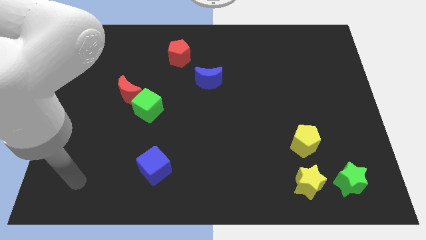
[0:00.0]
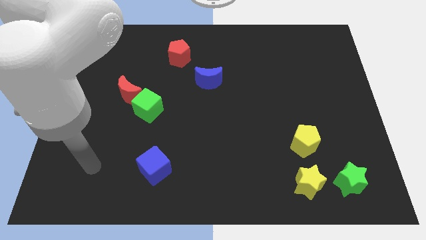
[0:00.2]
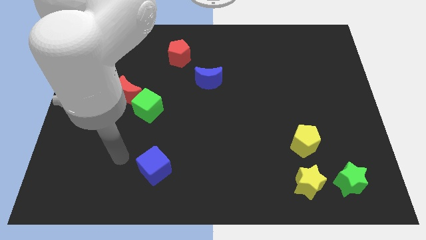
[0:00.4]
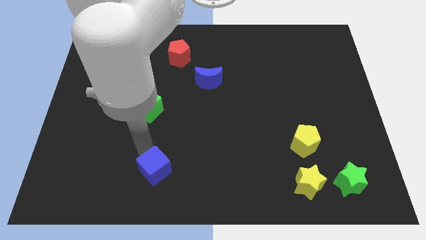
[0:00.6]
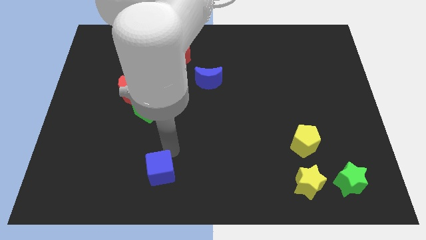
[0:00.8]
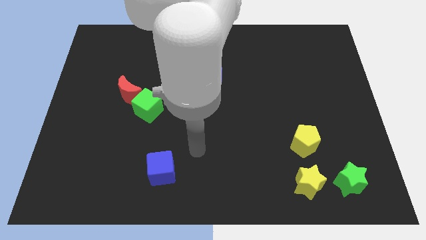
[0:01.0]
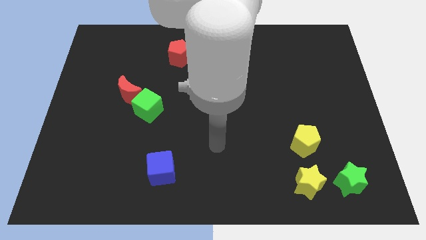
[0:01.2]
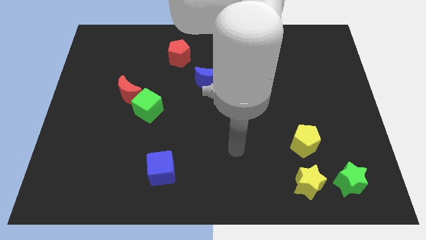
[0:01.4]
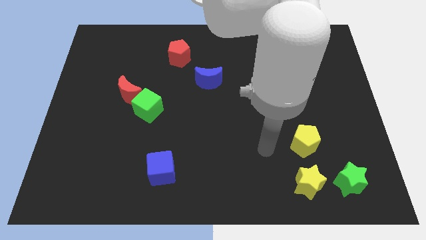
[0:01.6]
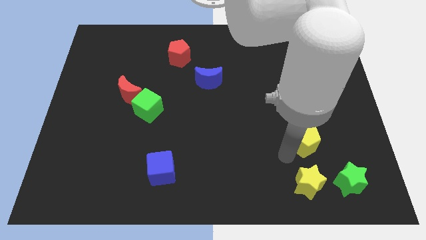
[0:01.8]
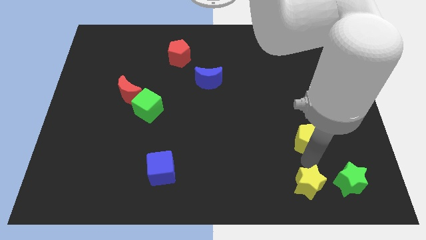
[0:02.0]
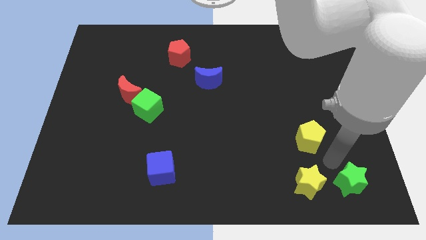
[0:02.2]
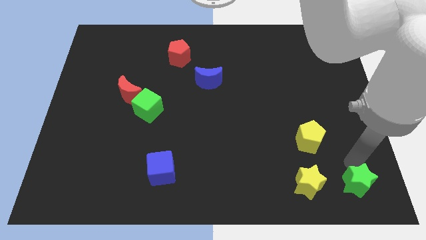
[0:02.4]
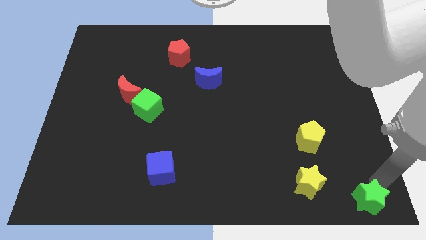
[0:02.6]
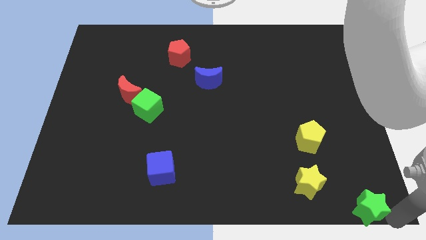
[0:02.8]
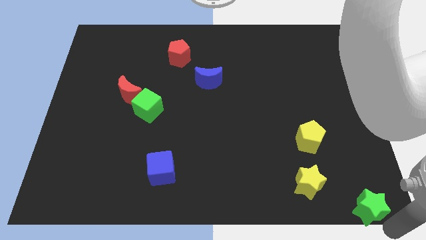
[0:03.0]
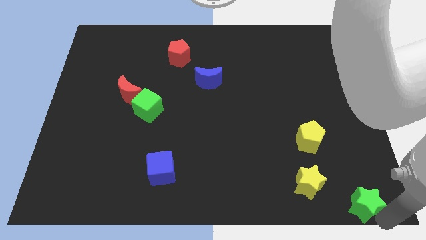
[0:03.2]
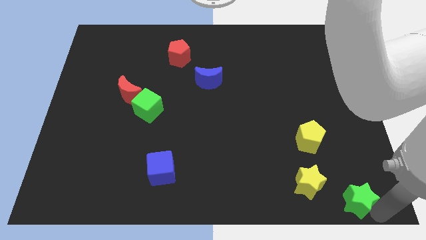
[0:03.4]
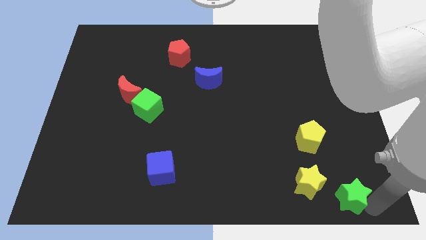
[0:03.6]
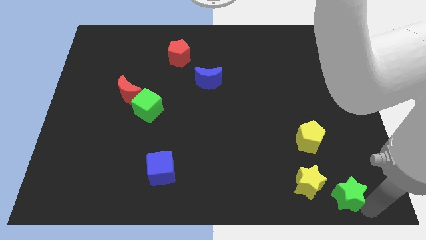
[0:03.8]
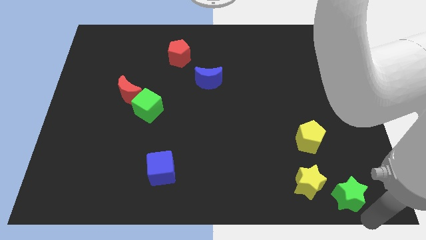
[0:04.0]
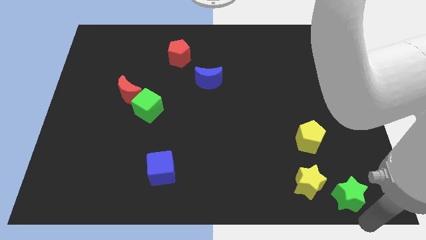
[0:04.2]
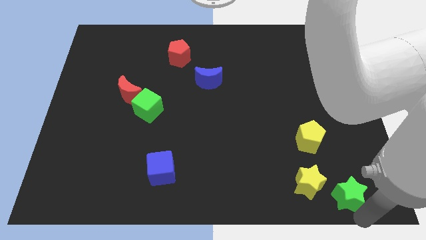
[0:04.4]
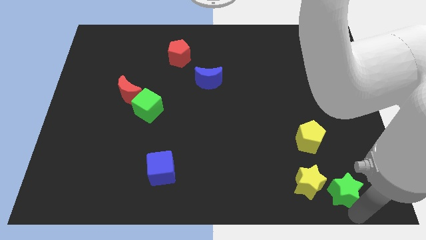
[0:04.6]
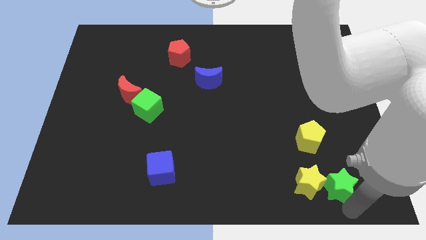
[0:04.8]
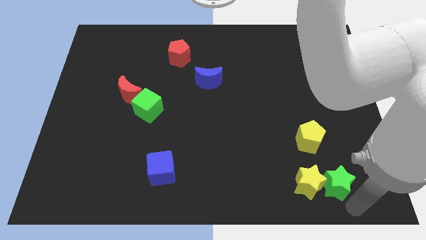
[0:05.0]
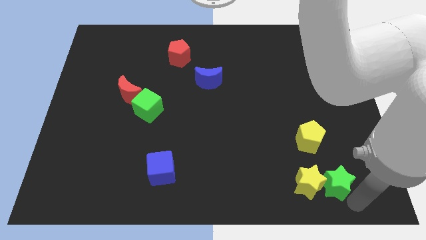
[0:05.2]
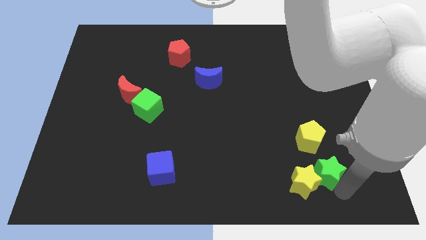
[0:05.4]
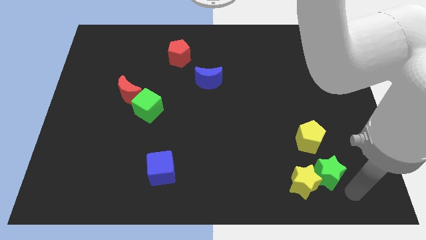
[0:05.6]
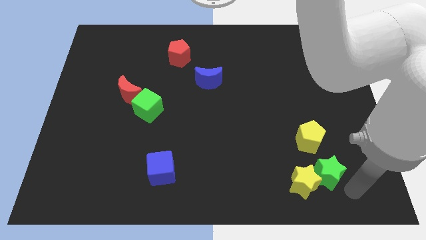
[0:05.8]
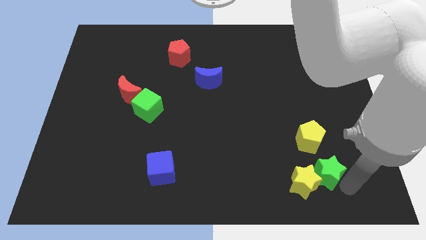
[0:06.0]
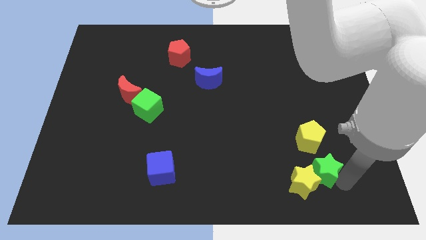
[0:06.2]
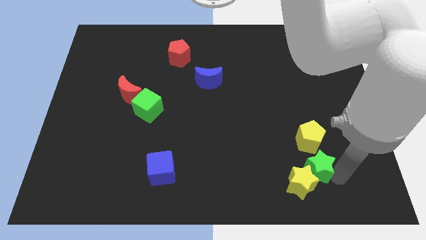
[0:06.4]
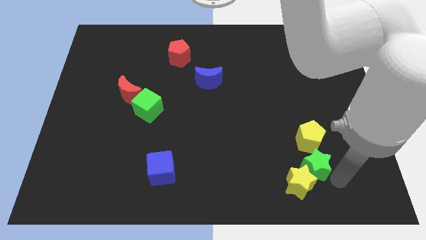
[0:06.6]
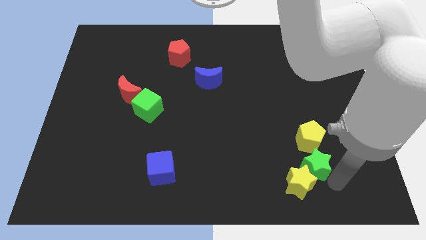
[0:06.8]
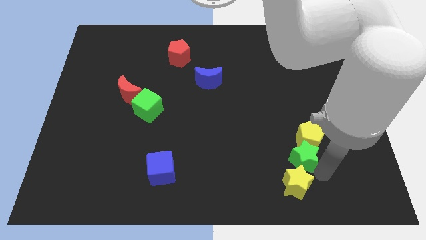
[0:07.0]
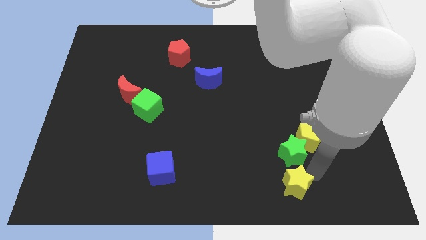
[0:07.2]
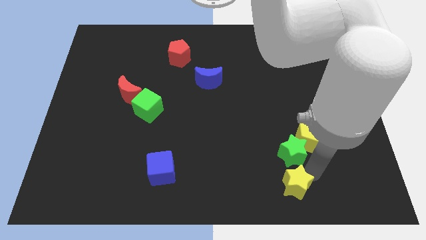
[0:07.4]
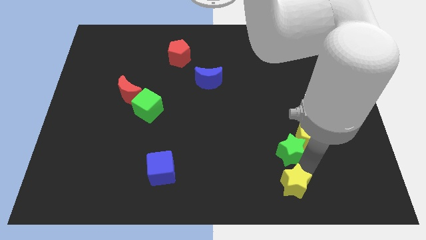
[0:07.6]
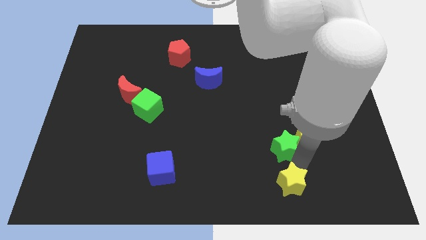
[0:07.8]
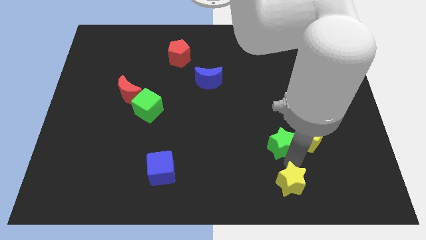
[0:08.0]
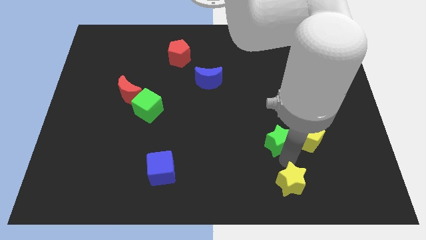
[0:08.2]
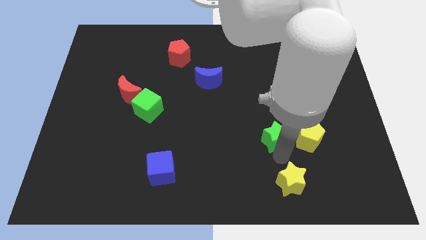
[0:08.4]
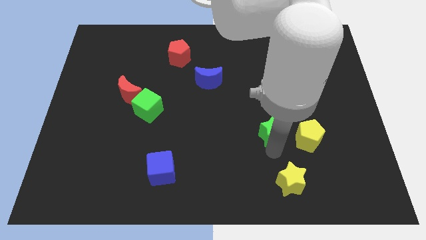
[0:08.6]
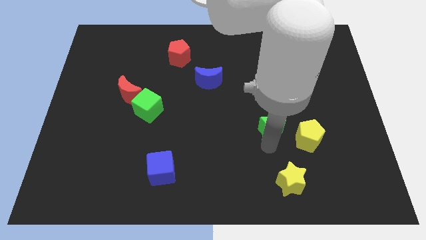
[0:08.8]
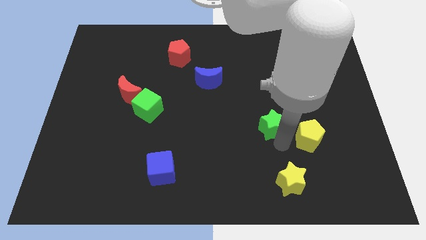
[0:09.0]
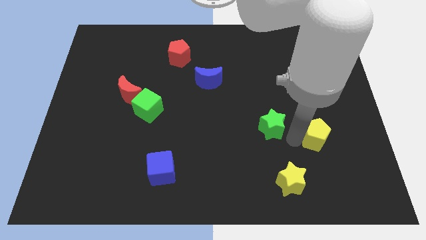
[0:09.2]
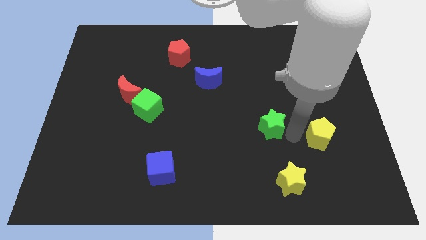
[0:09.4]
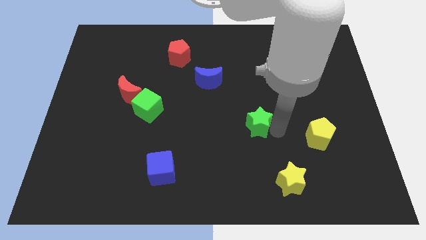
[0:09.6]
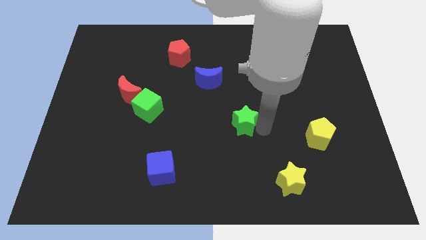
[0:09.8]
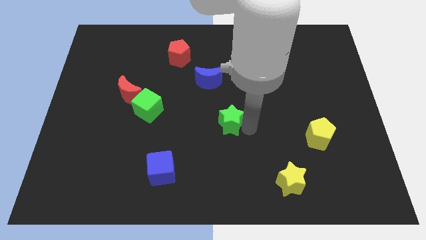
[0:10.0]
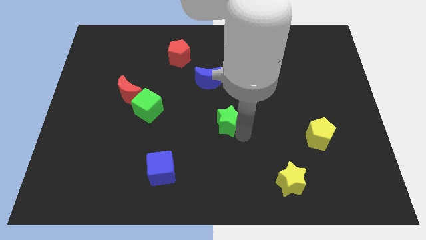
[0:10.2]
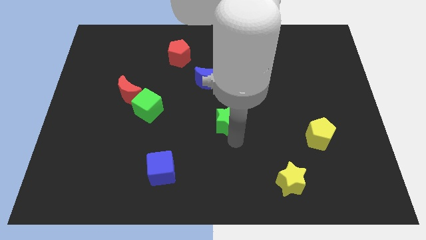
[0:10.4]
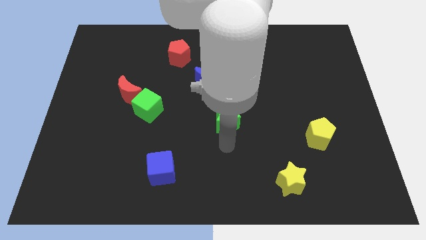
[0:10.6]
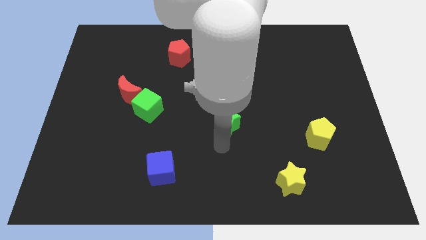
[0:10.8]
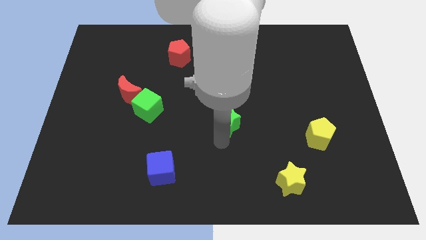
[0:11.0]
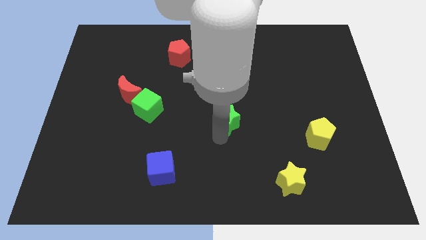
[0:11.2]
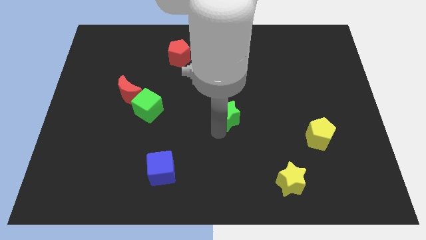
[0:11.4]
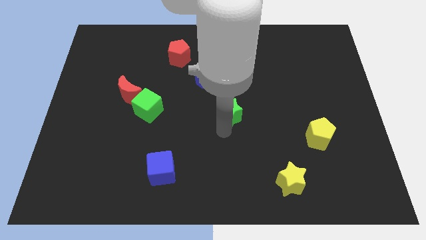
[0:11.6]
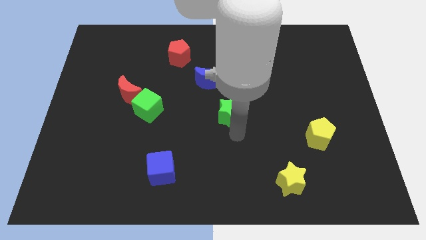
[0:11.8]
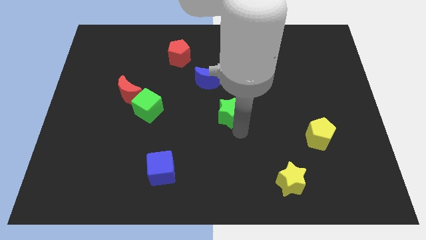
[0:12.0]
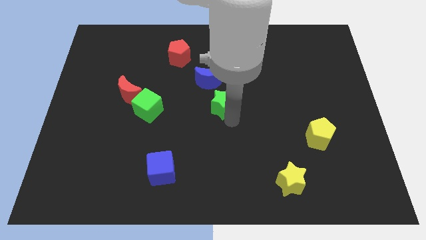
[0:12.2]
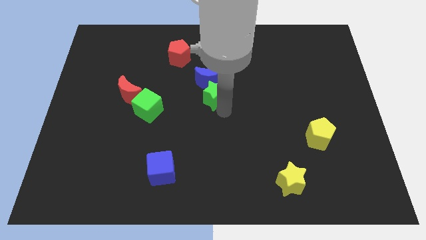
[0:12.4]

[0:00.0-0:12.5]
push the green star to the blue moon

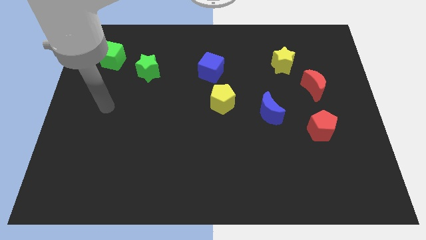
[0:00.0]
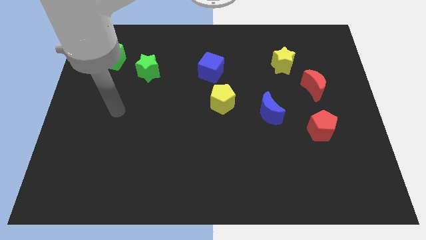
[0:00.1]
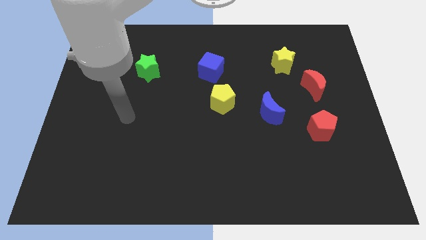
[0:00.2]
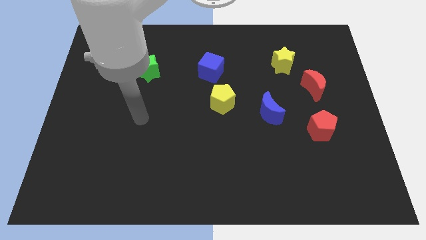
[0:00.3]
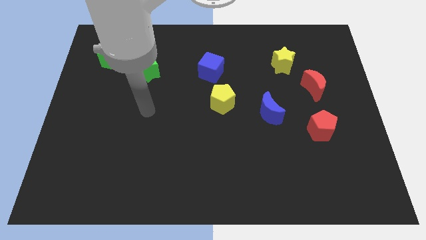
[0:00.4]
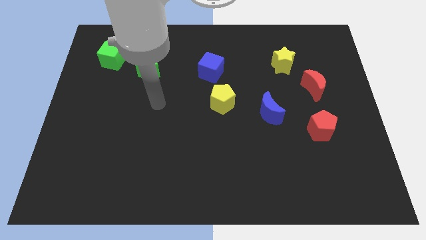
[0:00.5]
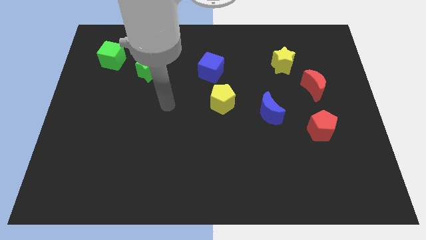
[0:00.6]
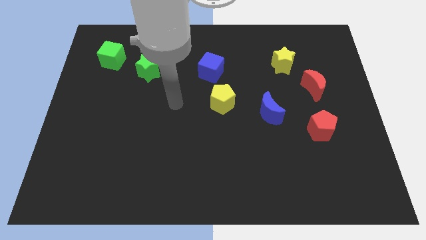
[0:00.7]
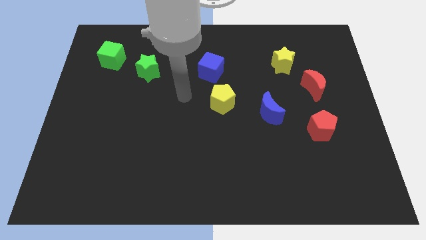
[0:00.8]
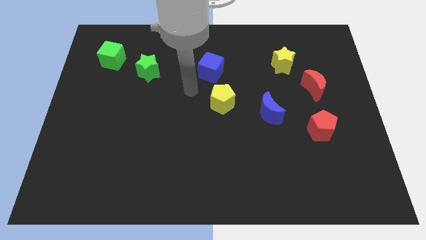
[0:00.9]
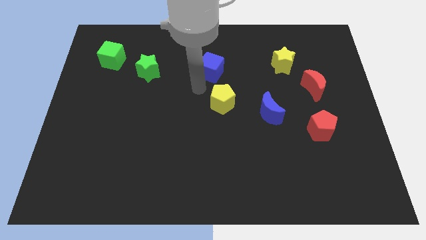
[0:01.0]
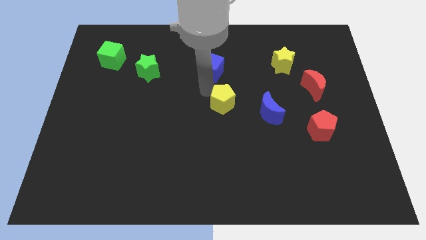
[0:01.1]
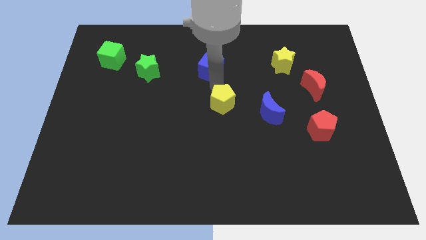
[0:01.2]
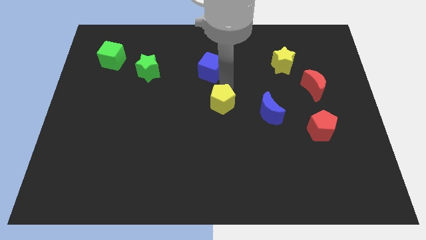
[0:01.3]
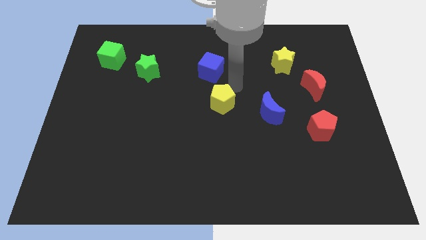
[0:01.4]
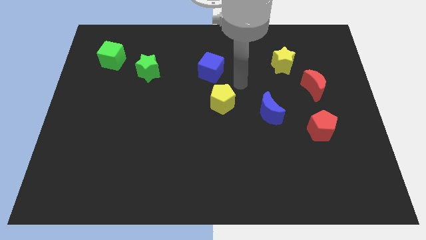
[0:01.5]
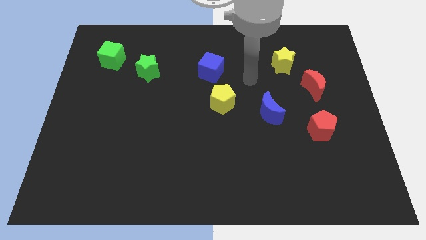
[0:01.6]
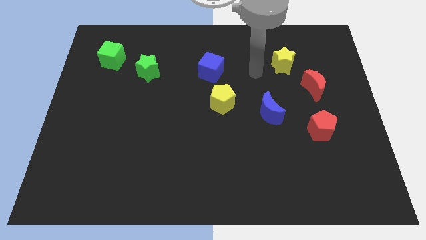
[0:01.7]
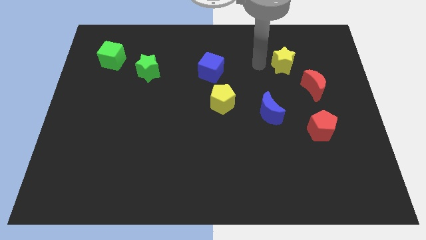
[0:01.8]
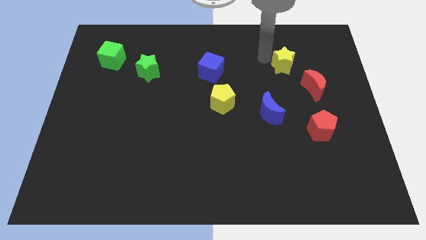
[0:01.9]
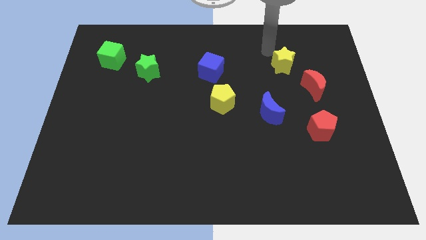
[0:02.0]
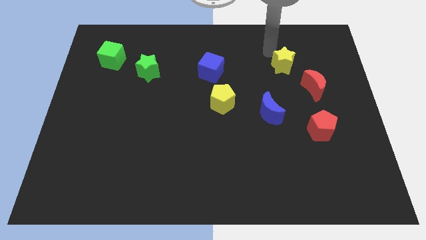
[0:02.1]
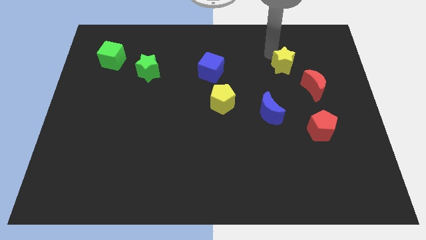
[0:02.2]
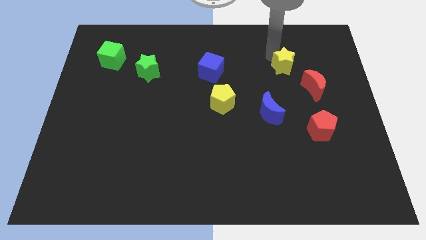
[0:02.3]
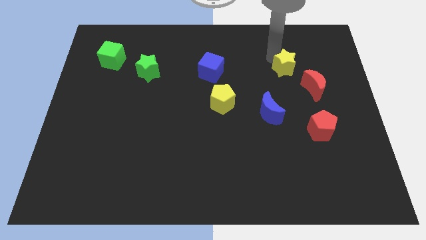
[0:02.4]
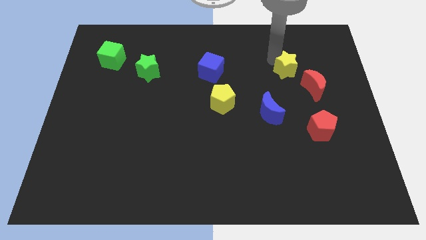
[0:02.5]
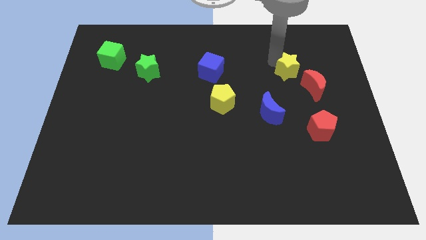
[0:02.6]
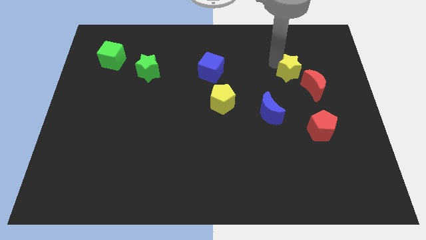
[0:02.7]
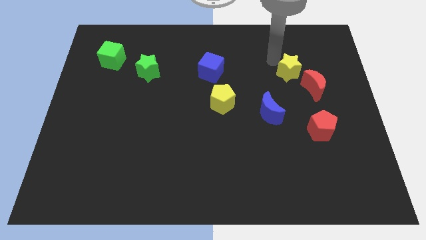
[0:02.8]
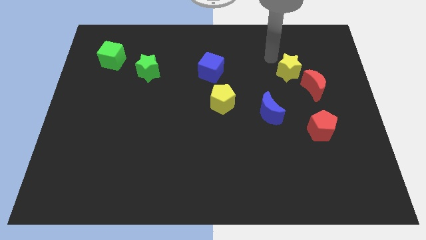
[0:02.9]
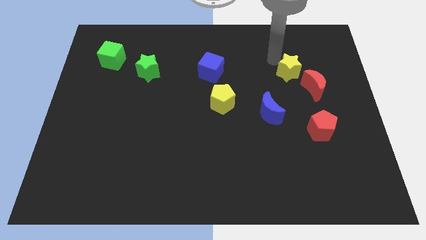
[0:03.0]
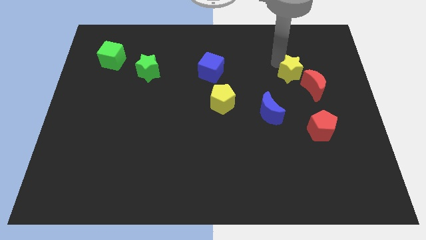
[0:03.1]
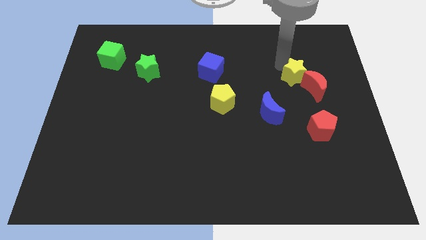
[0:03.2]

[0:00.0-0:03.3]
move the yellow star close to the red moon
